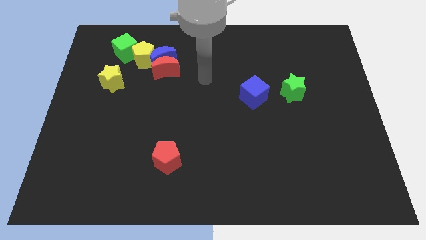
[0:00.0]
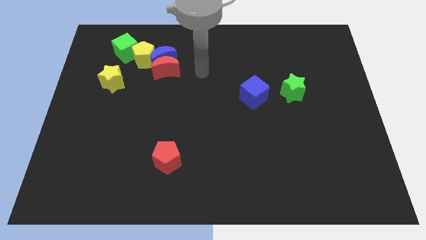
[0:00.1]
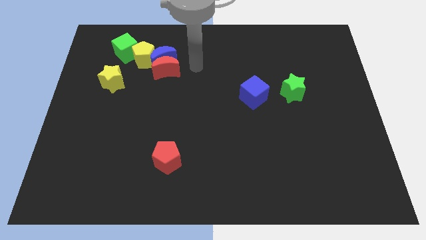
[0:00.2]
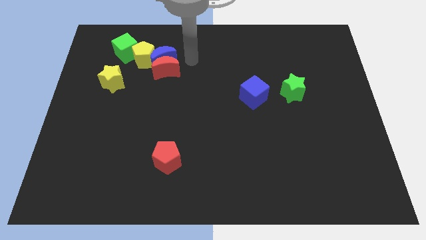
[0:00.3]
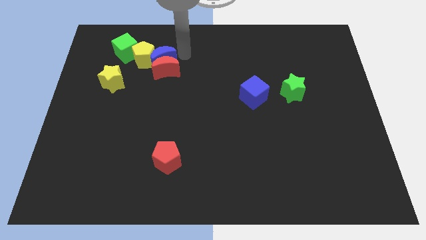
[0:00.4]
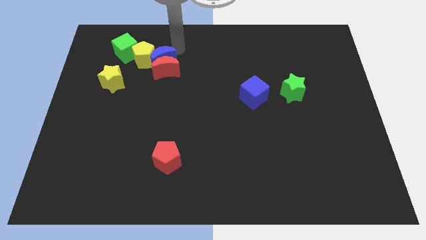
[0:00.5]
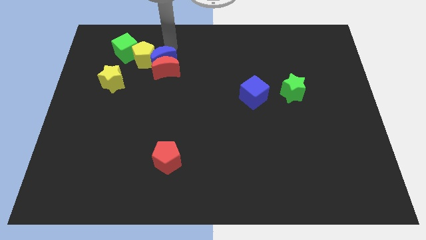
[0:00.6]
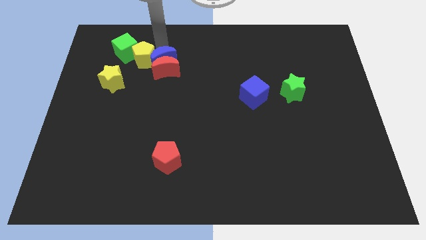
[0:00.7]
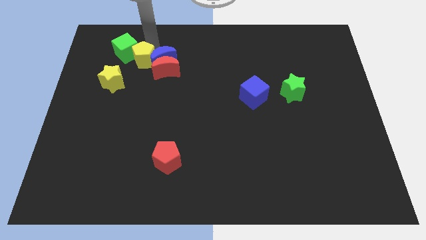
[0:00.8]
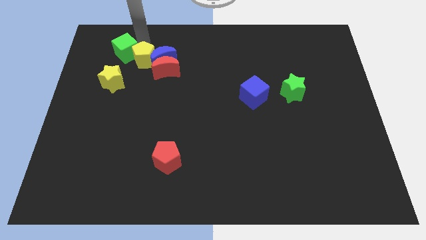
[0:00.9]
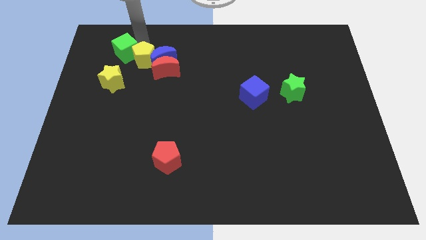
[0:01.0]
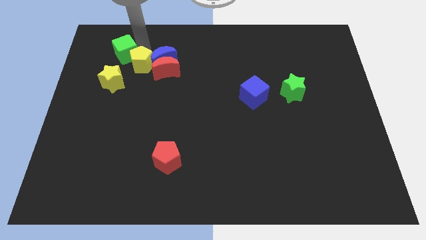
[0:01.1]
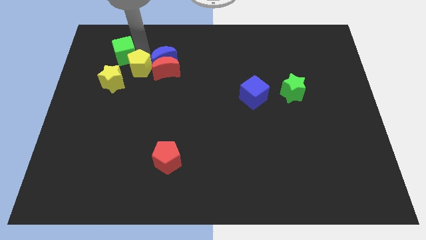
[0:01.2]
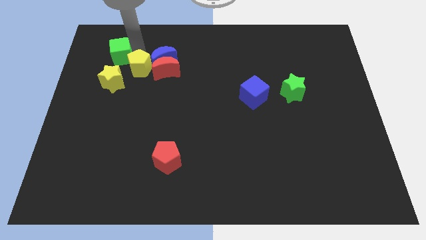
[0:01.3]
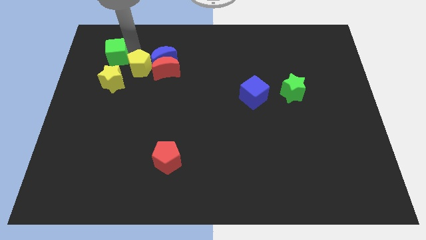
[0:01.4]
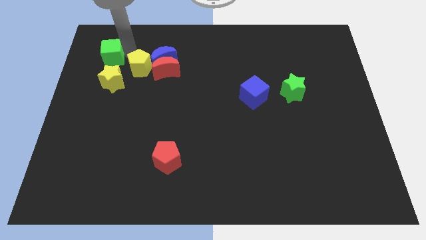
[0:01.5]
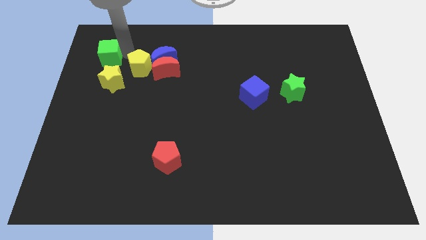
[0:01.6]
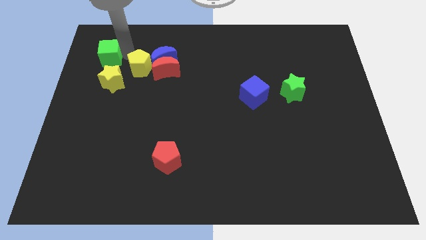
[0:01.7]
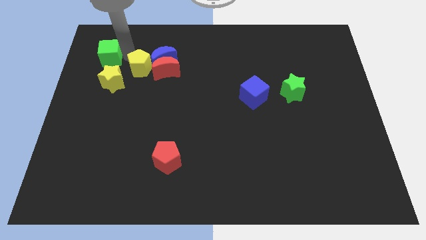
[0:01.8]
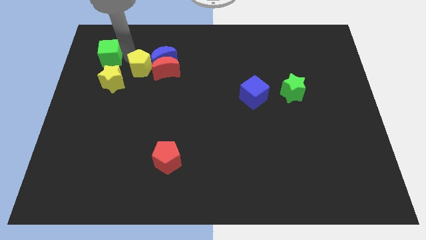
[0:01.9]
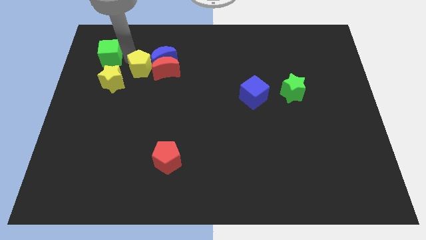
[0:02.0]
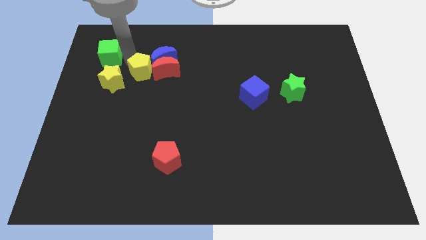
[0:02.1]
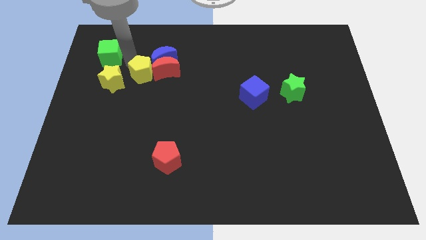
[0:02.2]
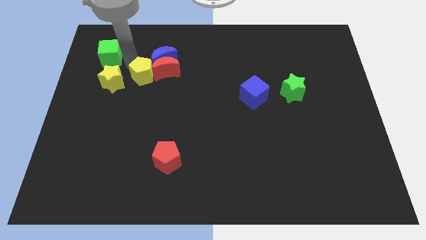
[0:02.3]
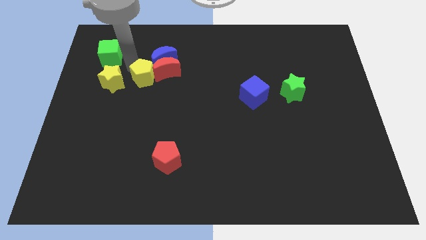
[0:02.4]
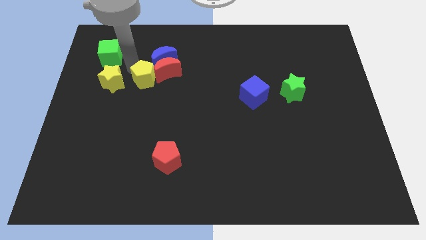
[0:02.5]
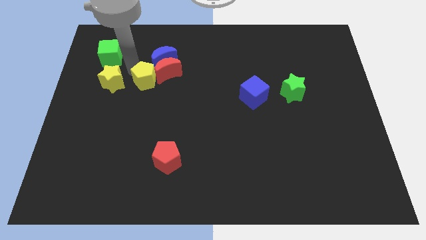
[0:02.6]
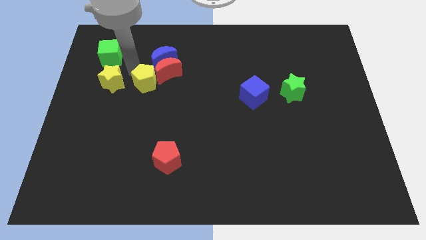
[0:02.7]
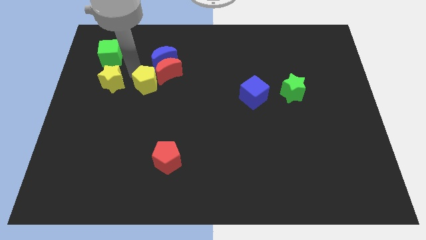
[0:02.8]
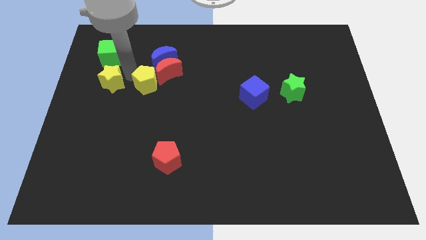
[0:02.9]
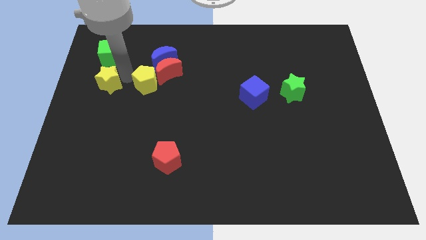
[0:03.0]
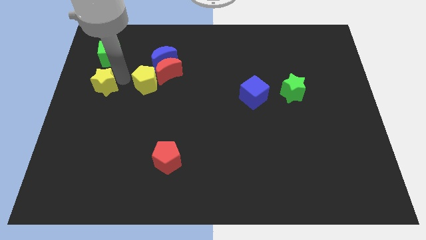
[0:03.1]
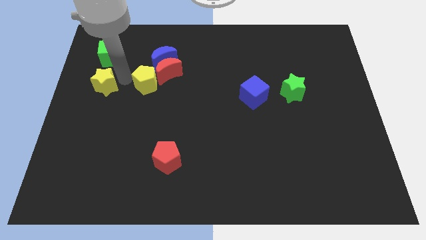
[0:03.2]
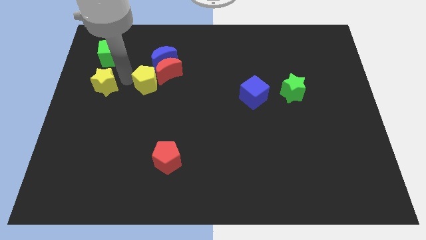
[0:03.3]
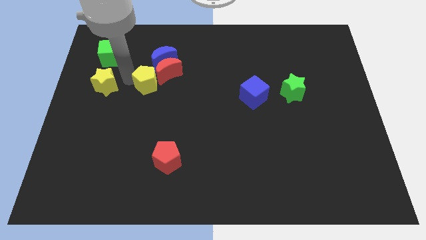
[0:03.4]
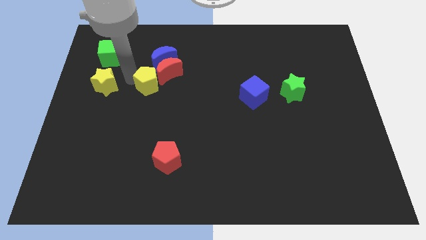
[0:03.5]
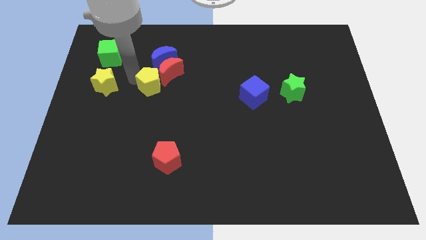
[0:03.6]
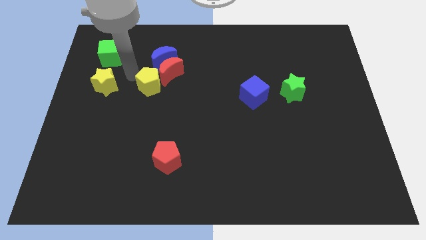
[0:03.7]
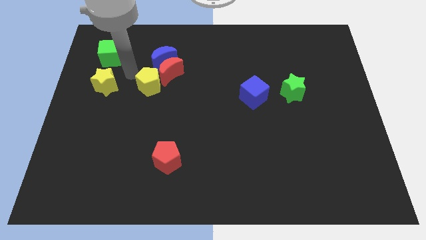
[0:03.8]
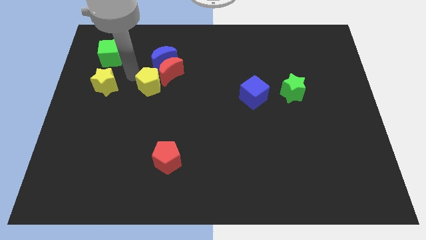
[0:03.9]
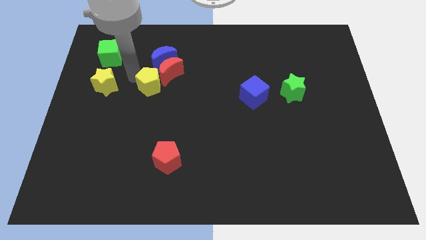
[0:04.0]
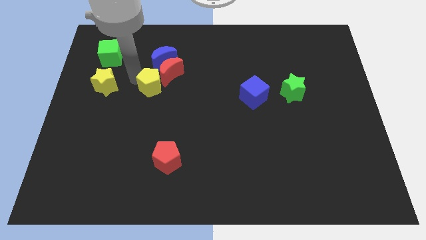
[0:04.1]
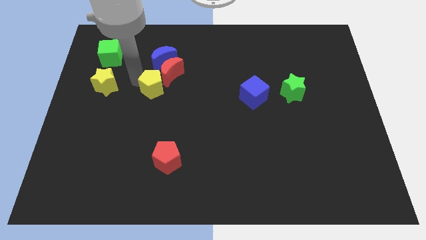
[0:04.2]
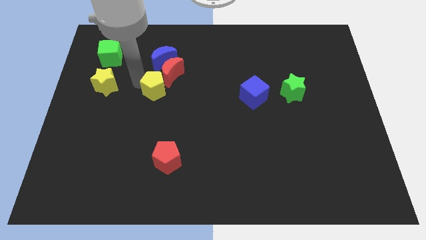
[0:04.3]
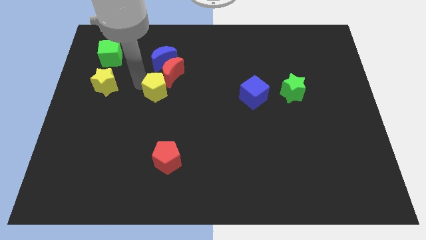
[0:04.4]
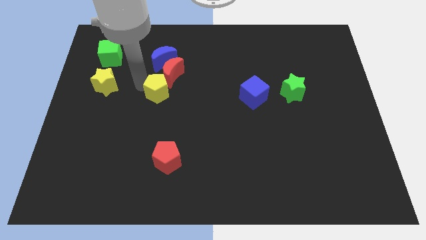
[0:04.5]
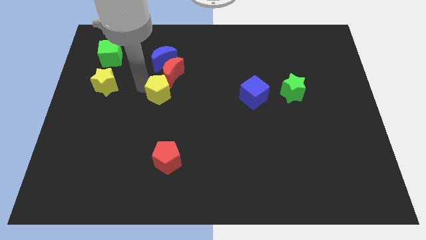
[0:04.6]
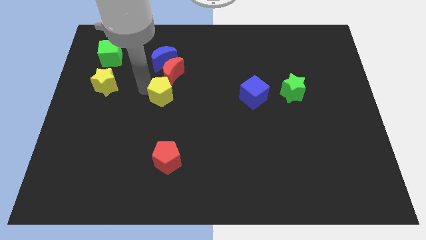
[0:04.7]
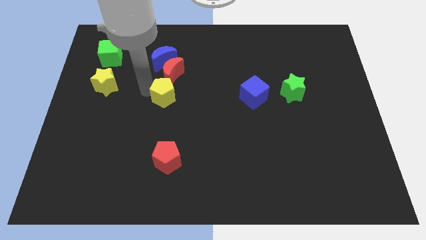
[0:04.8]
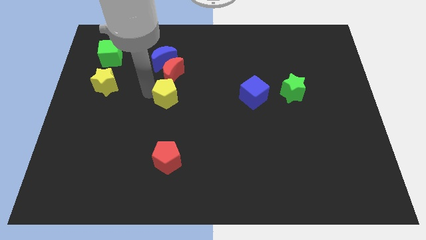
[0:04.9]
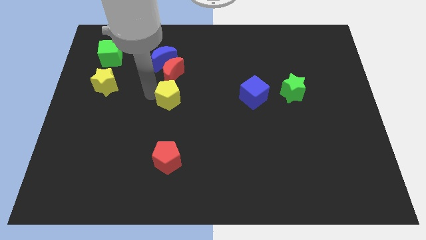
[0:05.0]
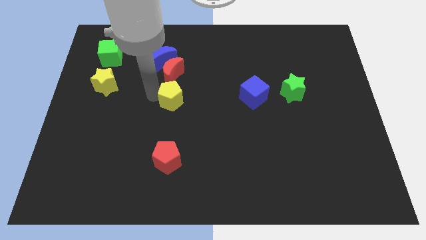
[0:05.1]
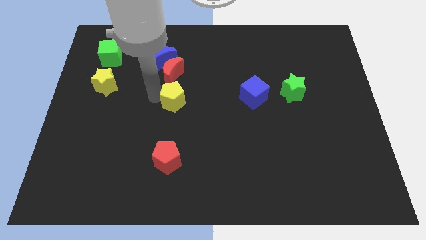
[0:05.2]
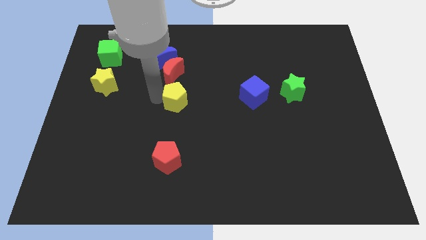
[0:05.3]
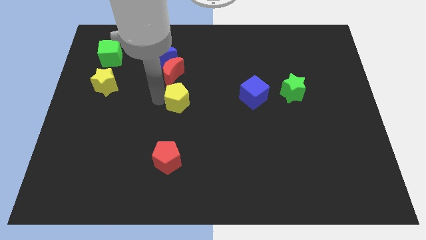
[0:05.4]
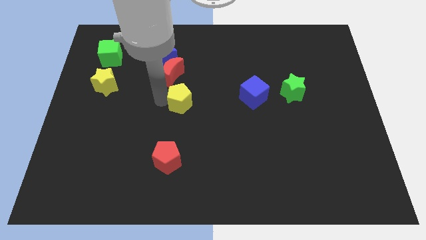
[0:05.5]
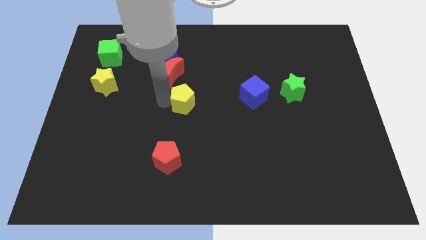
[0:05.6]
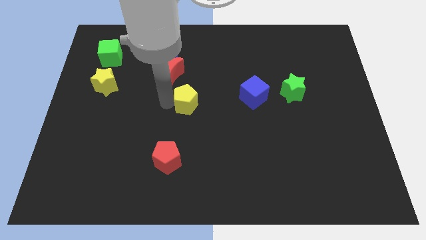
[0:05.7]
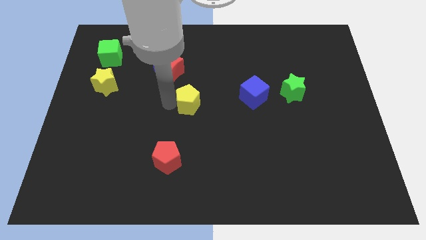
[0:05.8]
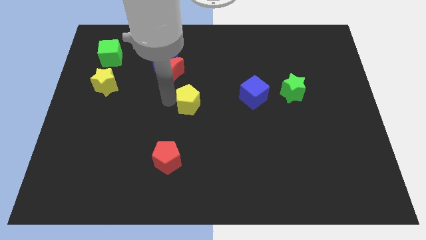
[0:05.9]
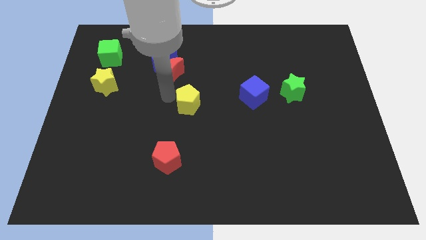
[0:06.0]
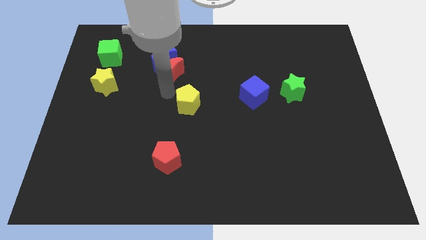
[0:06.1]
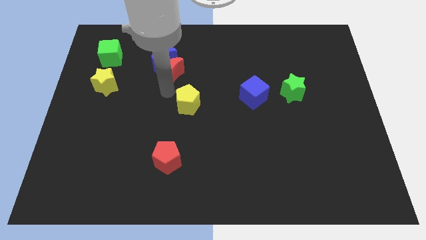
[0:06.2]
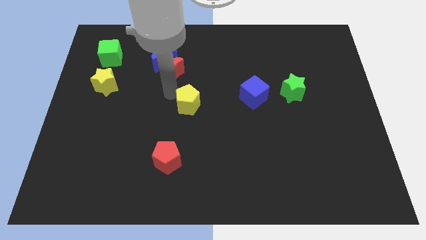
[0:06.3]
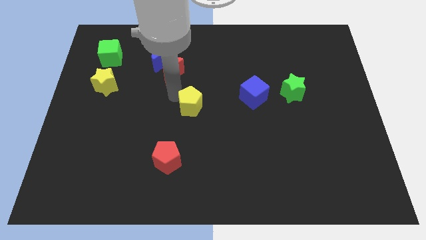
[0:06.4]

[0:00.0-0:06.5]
push the yellow pentagon diagonally downwards and right

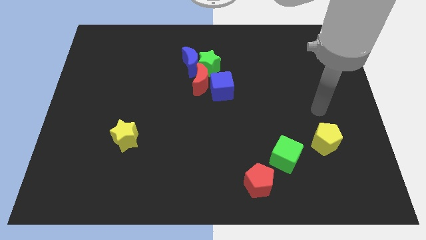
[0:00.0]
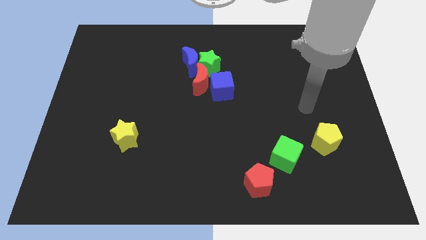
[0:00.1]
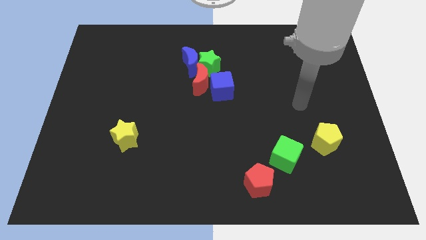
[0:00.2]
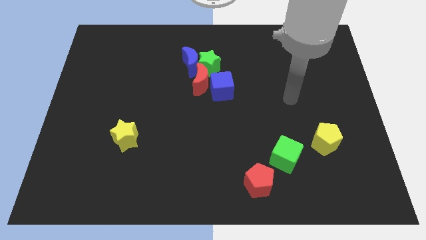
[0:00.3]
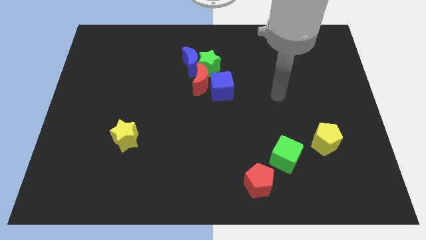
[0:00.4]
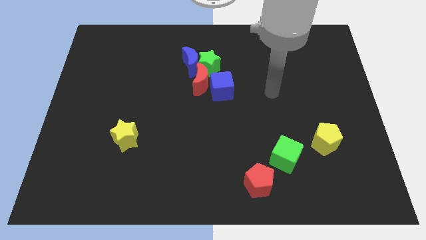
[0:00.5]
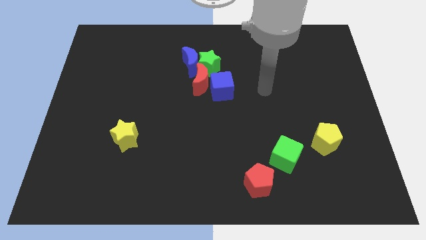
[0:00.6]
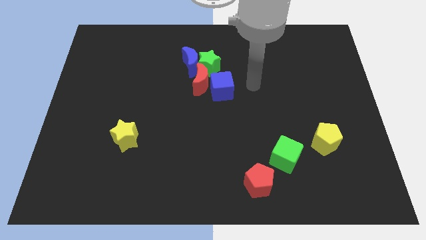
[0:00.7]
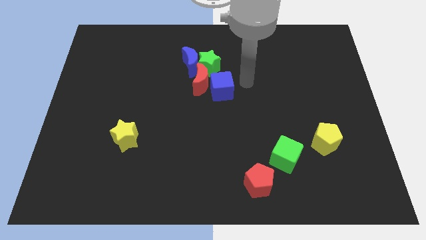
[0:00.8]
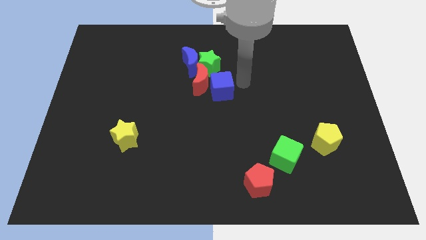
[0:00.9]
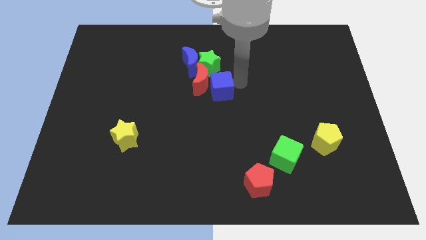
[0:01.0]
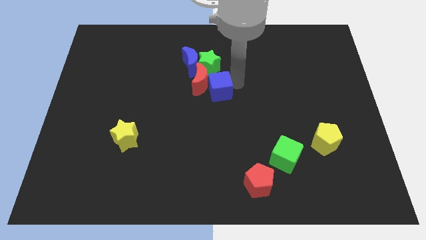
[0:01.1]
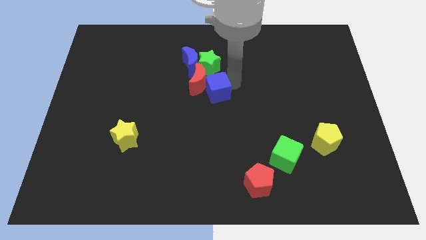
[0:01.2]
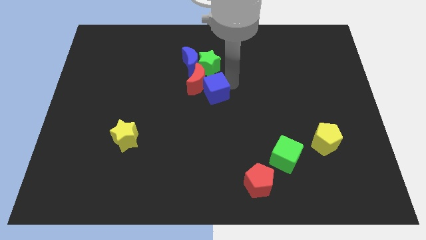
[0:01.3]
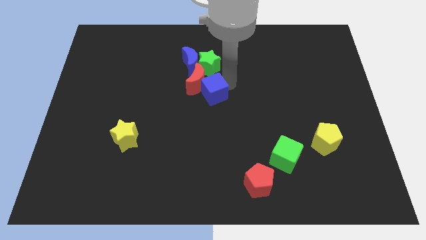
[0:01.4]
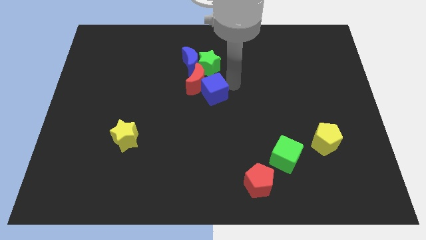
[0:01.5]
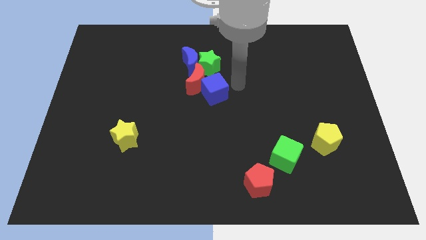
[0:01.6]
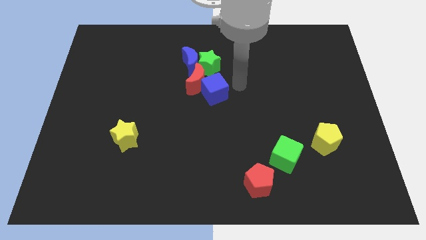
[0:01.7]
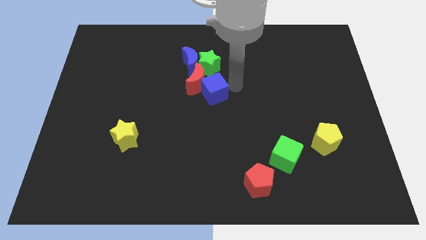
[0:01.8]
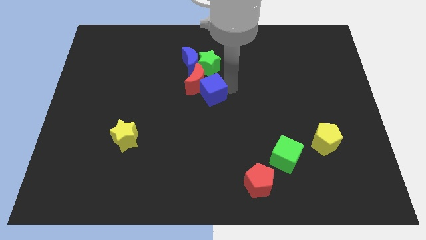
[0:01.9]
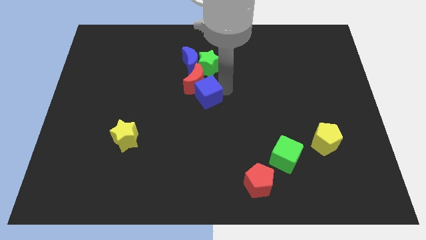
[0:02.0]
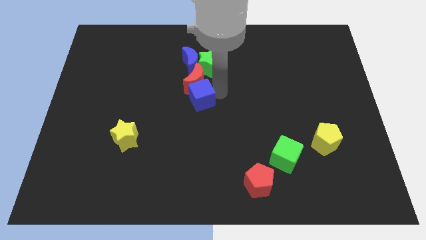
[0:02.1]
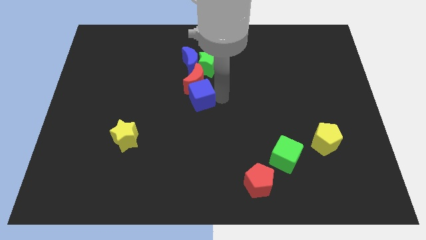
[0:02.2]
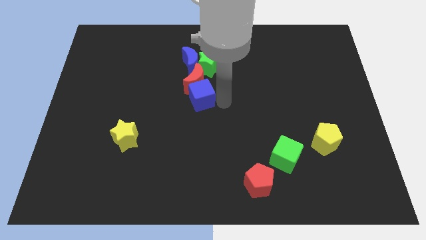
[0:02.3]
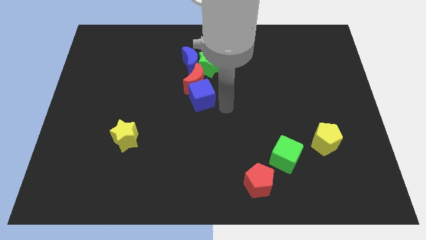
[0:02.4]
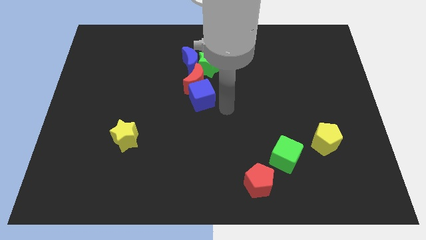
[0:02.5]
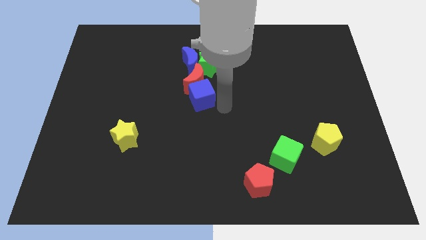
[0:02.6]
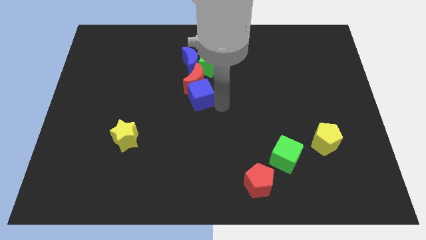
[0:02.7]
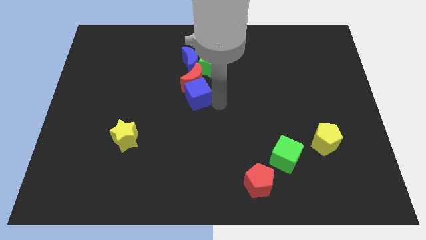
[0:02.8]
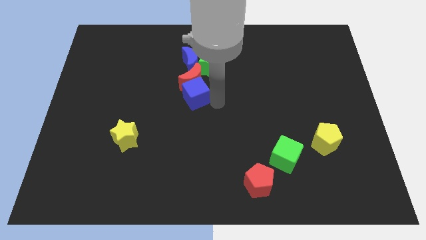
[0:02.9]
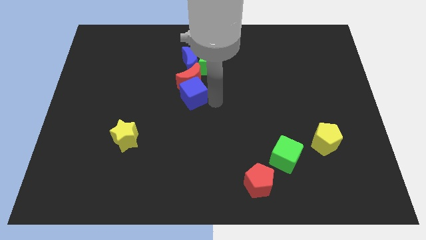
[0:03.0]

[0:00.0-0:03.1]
push the blue cube a bit left
